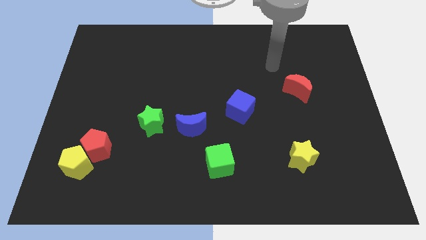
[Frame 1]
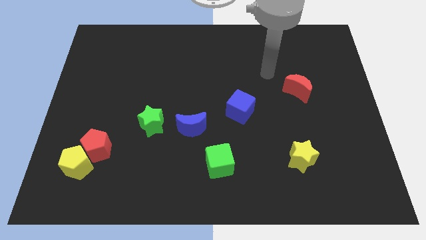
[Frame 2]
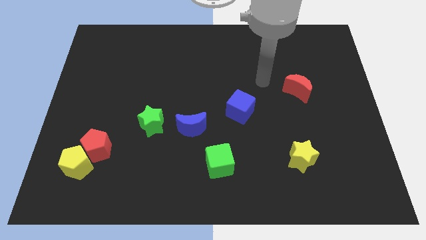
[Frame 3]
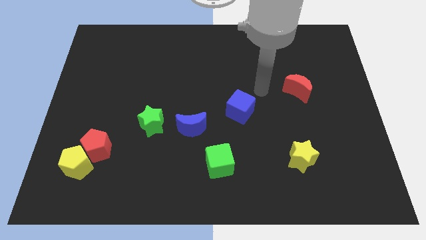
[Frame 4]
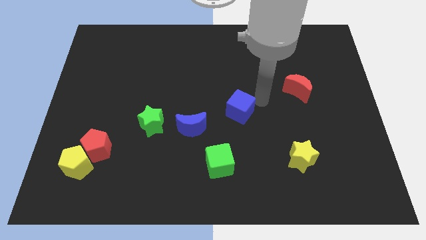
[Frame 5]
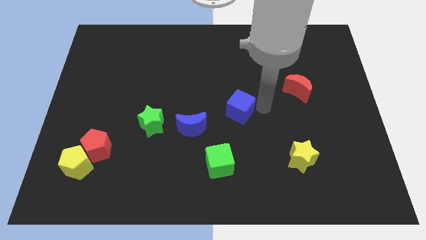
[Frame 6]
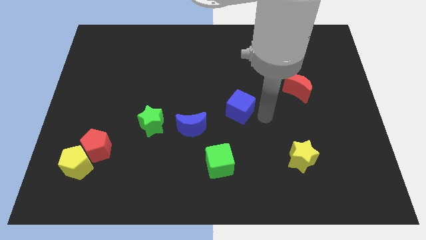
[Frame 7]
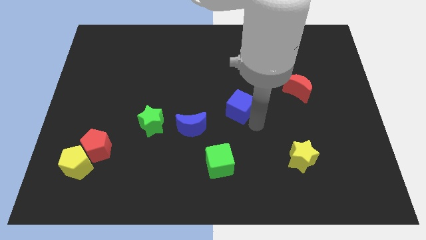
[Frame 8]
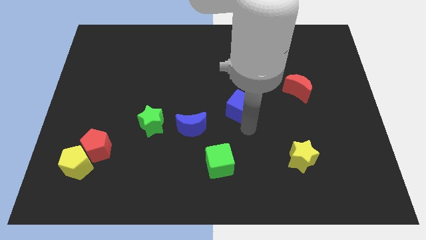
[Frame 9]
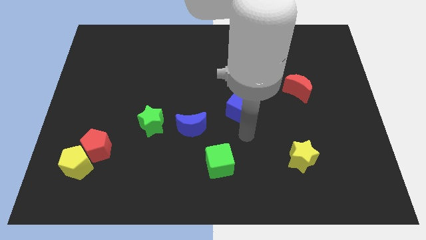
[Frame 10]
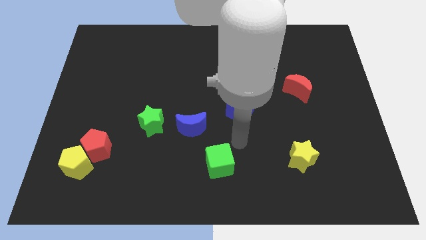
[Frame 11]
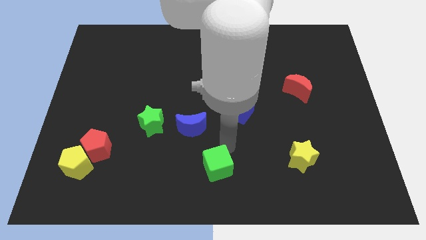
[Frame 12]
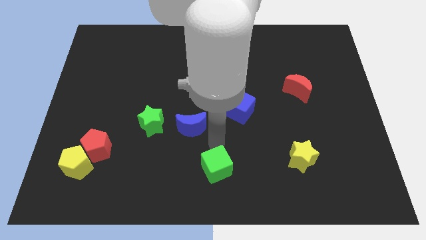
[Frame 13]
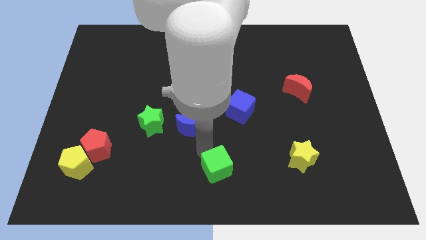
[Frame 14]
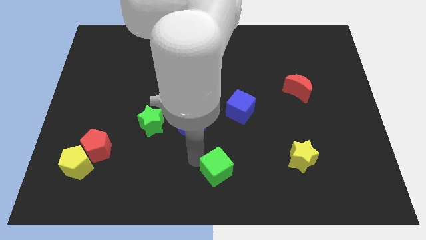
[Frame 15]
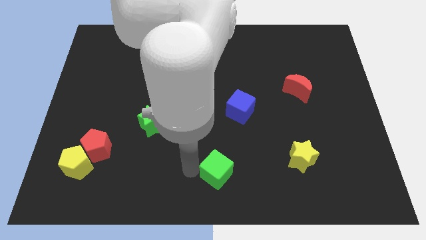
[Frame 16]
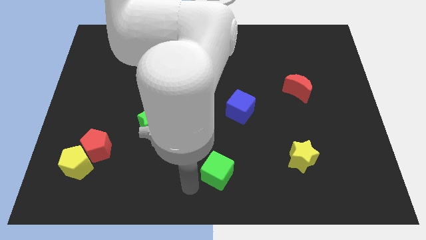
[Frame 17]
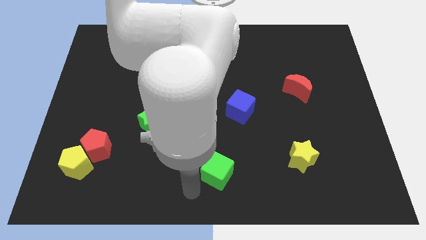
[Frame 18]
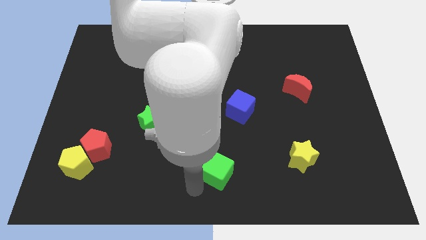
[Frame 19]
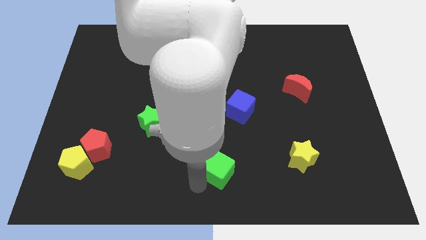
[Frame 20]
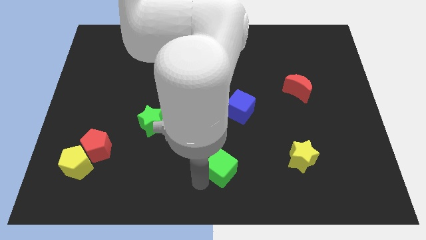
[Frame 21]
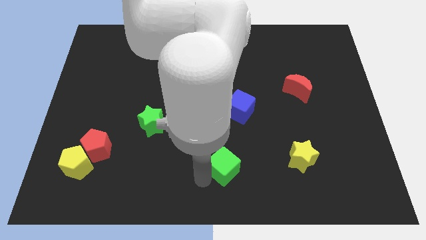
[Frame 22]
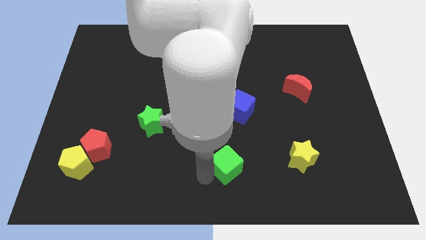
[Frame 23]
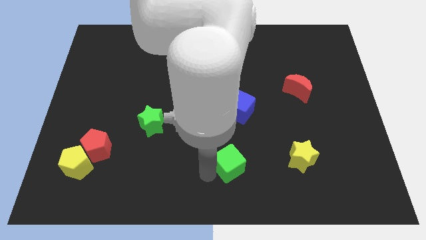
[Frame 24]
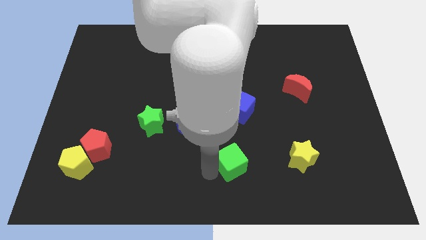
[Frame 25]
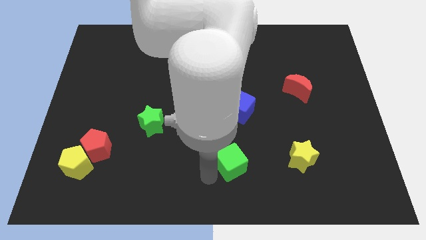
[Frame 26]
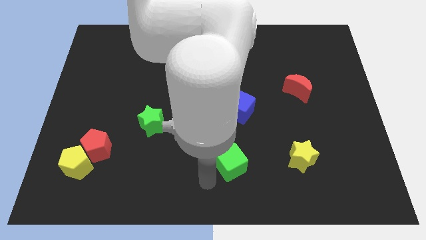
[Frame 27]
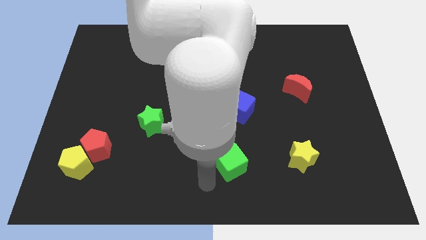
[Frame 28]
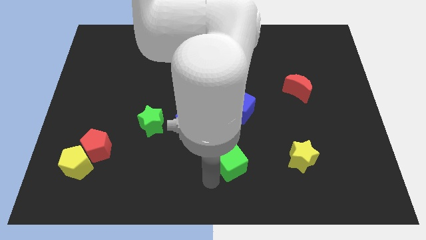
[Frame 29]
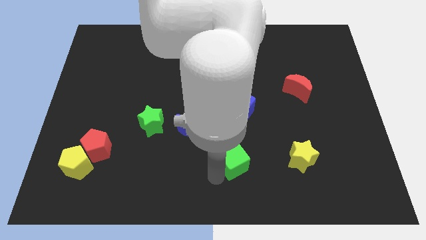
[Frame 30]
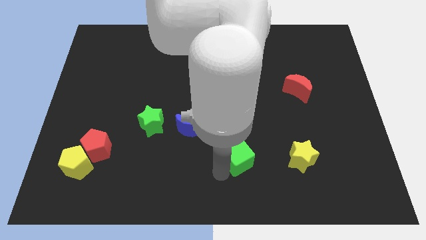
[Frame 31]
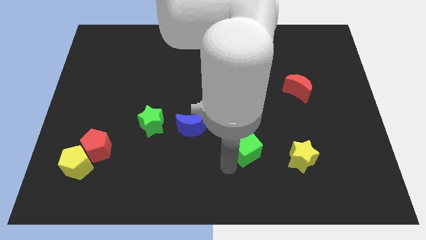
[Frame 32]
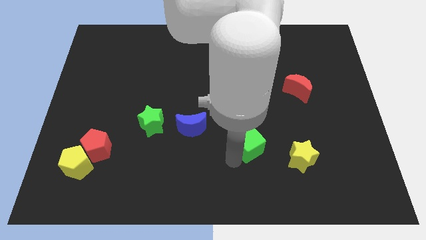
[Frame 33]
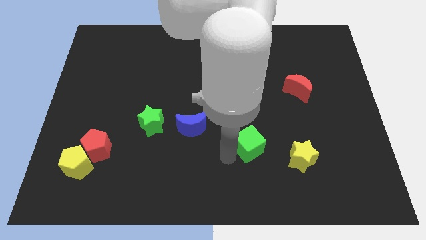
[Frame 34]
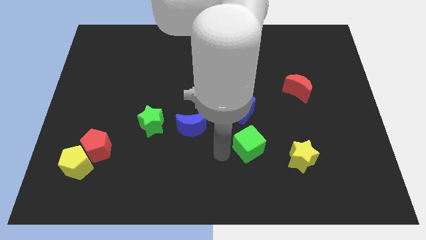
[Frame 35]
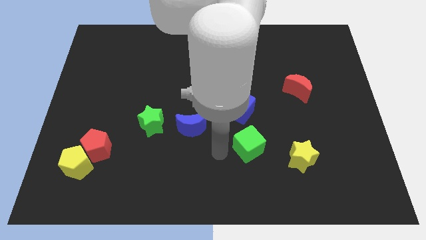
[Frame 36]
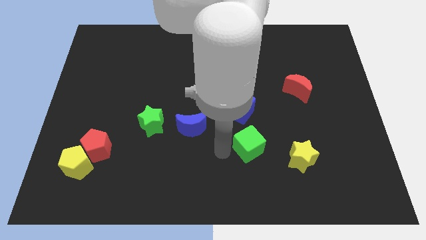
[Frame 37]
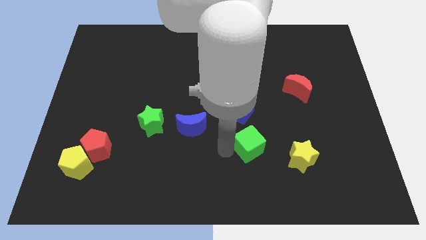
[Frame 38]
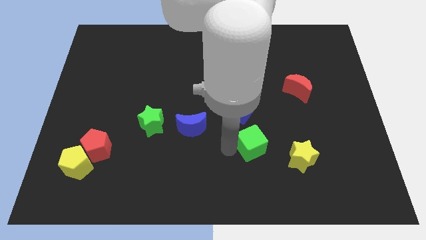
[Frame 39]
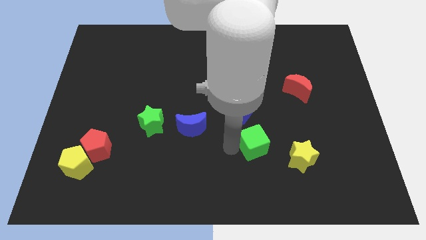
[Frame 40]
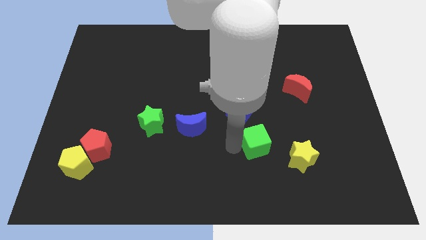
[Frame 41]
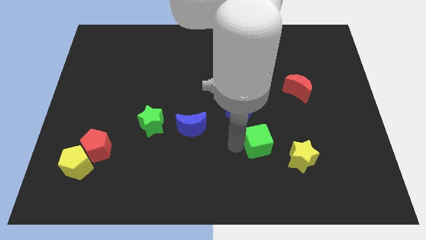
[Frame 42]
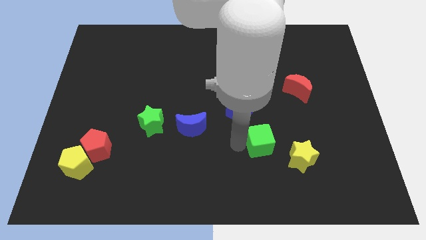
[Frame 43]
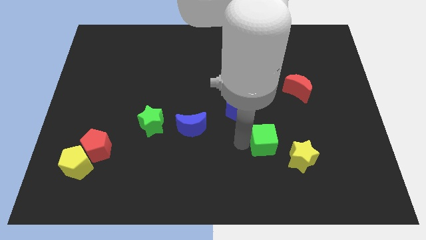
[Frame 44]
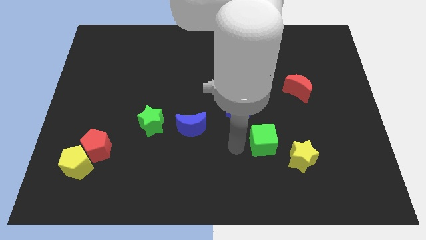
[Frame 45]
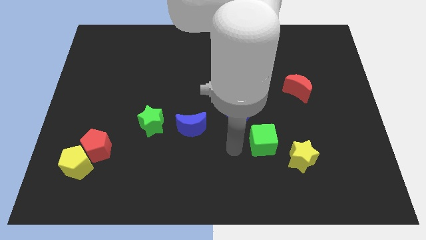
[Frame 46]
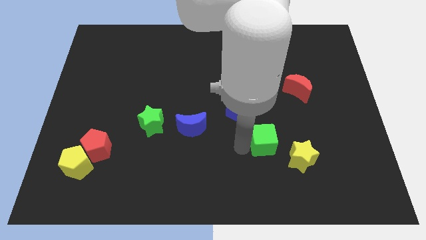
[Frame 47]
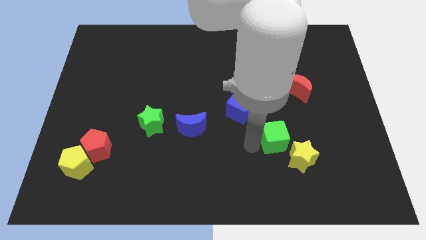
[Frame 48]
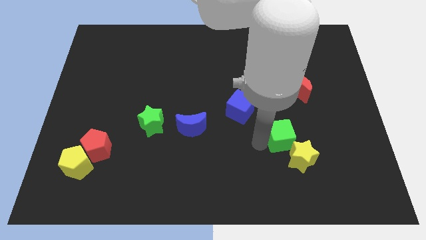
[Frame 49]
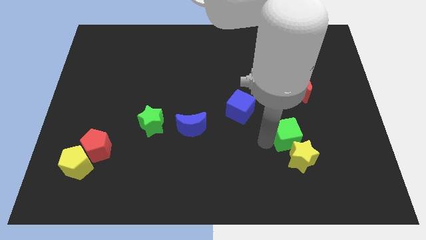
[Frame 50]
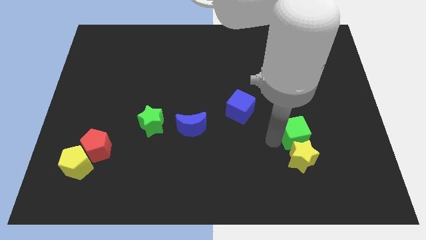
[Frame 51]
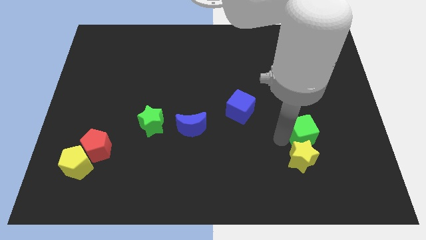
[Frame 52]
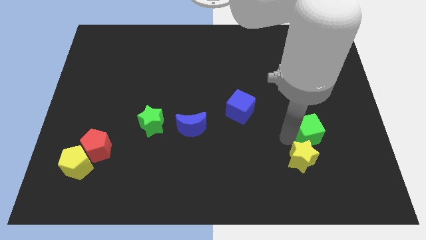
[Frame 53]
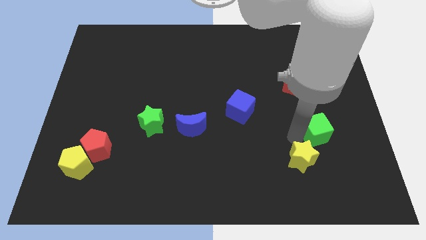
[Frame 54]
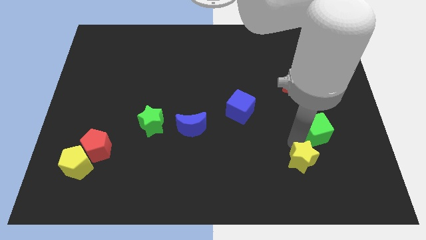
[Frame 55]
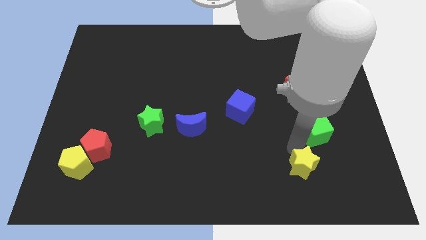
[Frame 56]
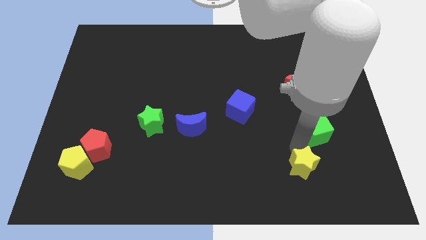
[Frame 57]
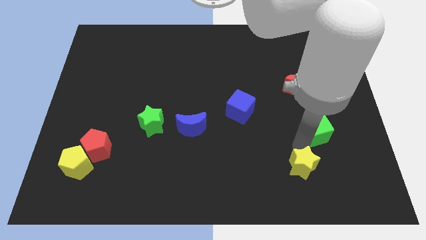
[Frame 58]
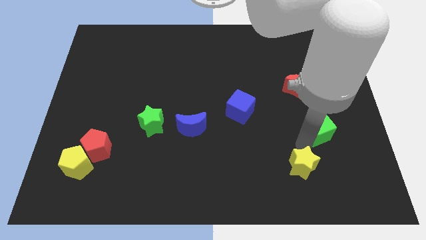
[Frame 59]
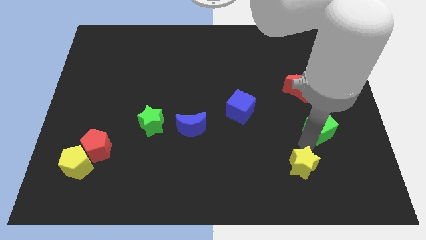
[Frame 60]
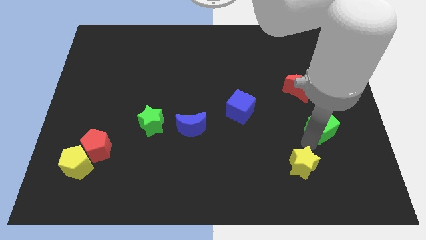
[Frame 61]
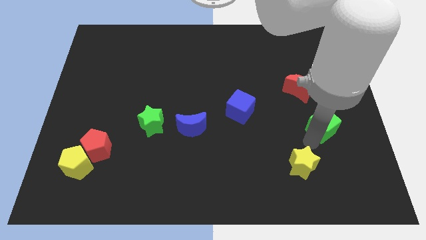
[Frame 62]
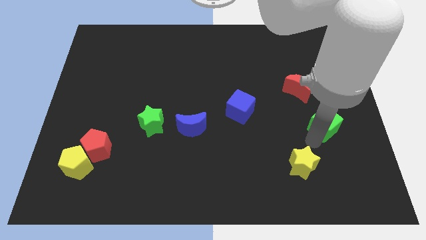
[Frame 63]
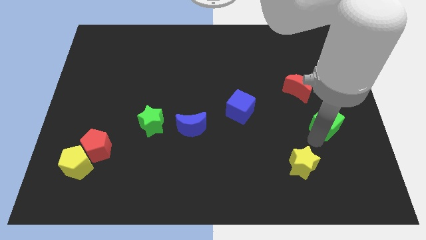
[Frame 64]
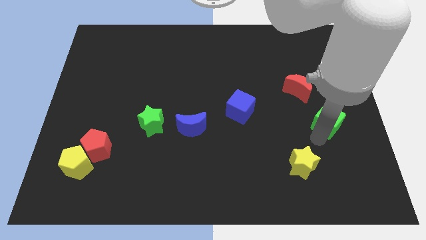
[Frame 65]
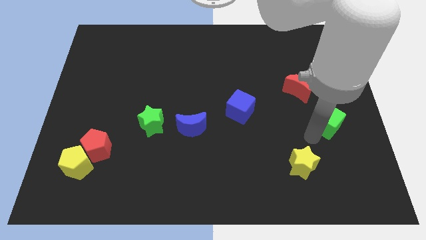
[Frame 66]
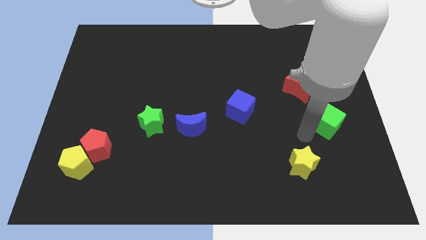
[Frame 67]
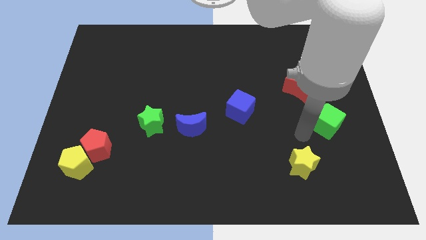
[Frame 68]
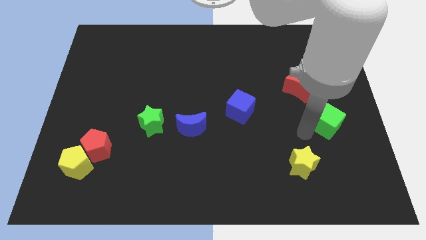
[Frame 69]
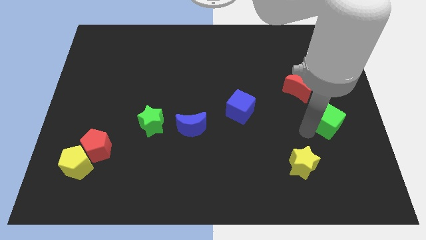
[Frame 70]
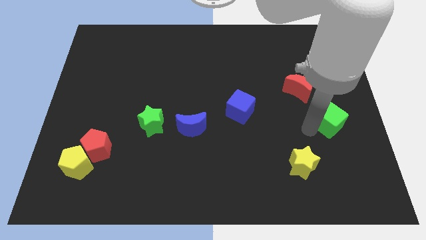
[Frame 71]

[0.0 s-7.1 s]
slide the green cube to the center right

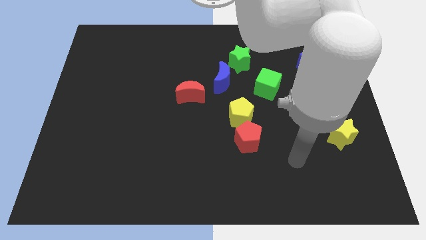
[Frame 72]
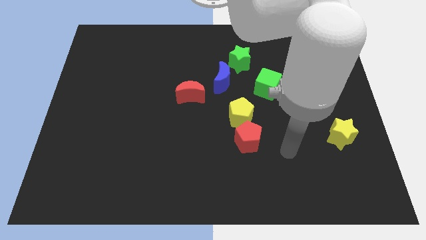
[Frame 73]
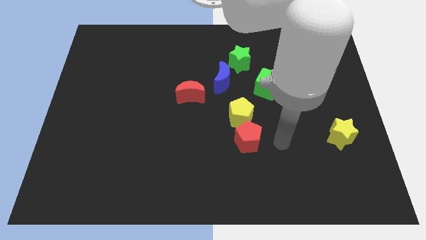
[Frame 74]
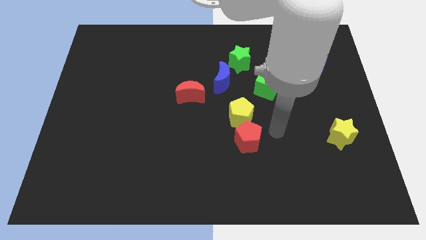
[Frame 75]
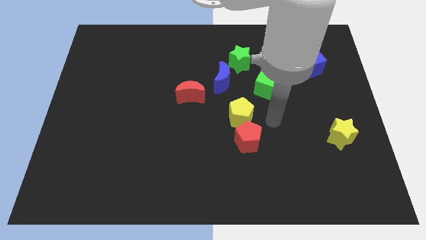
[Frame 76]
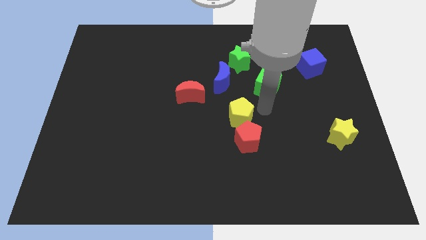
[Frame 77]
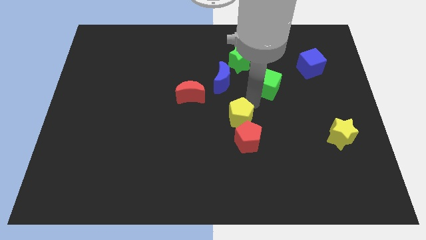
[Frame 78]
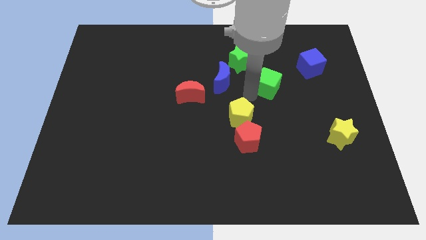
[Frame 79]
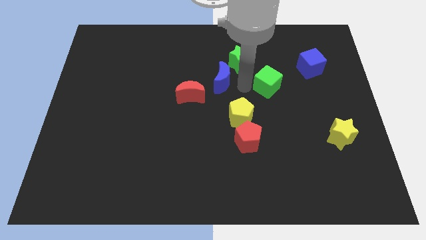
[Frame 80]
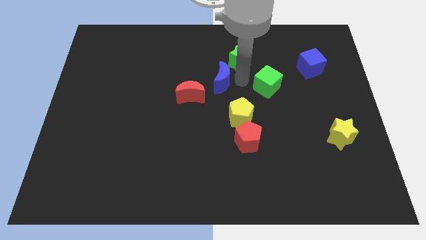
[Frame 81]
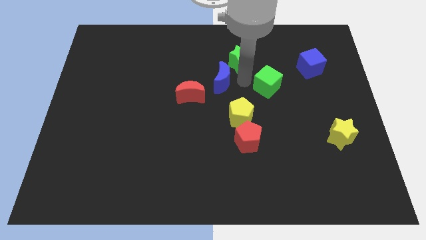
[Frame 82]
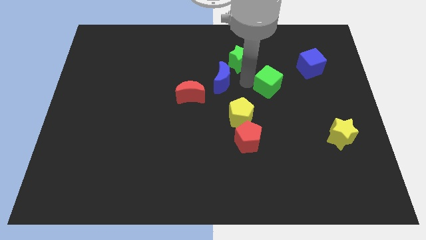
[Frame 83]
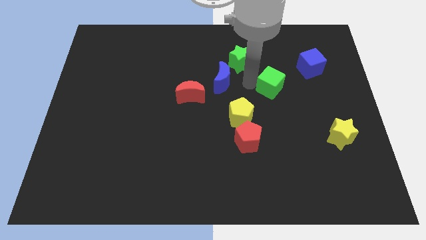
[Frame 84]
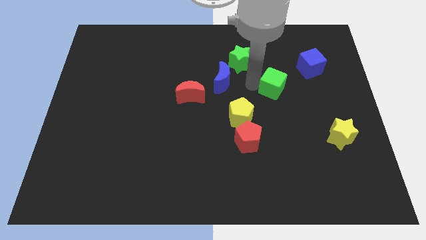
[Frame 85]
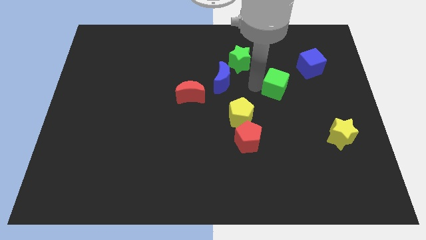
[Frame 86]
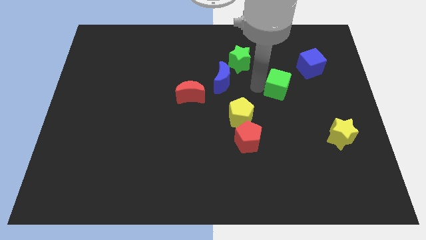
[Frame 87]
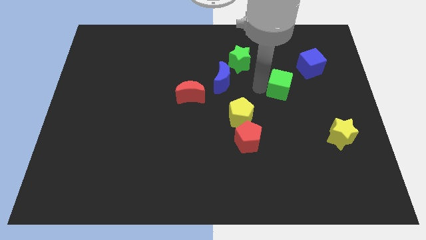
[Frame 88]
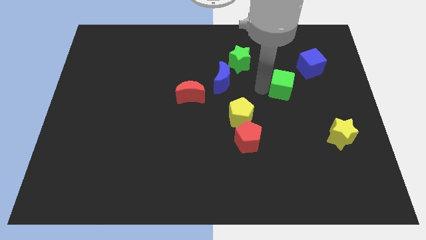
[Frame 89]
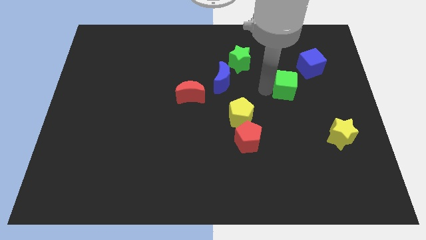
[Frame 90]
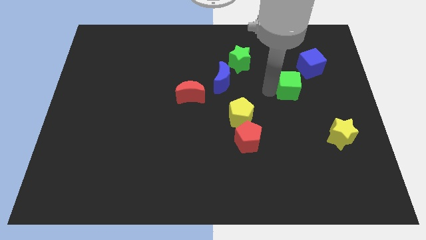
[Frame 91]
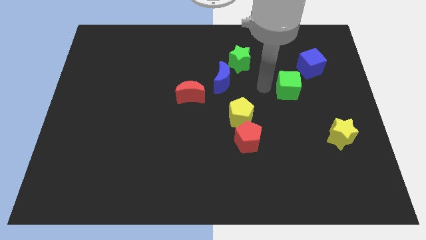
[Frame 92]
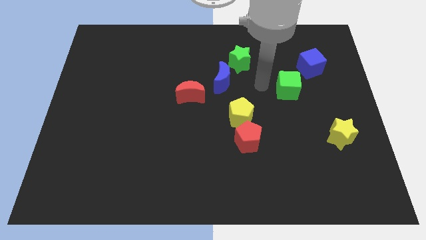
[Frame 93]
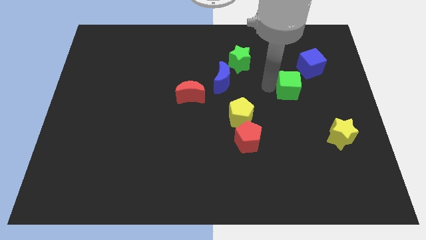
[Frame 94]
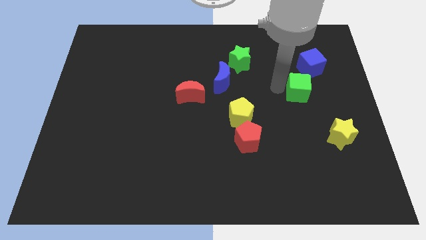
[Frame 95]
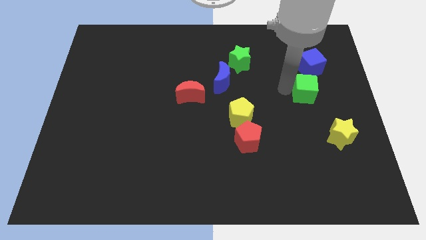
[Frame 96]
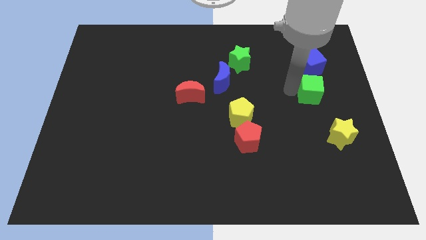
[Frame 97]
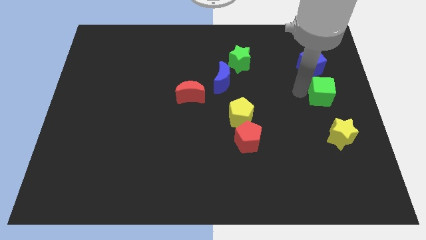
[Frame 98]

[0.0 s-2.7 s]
put the green cube to the center right
